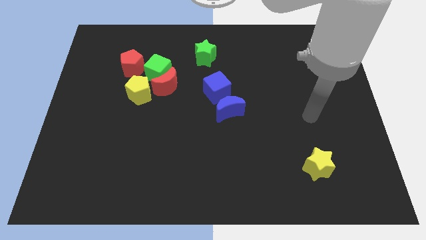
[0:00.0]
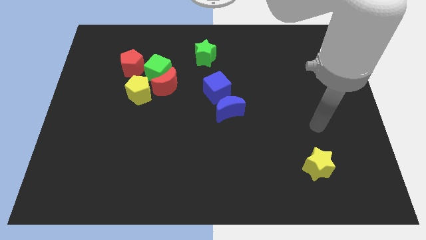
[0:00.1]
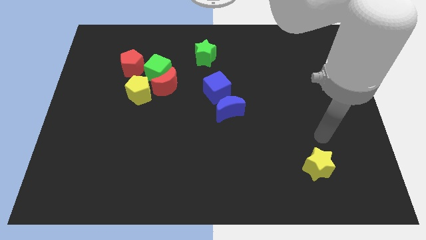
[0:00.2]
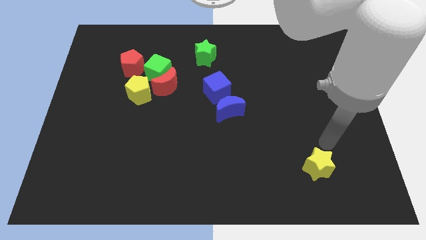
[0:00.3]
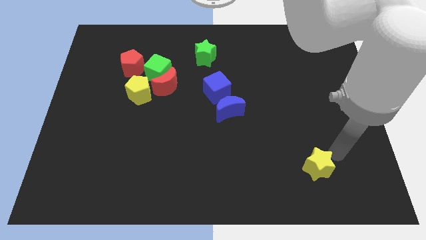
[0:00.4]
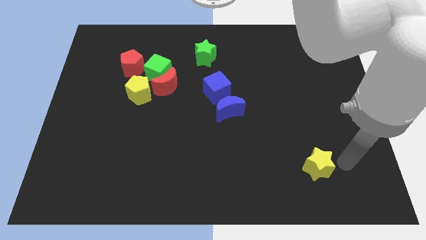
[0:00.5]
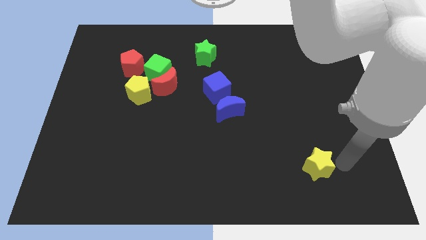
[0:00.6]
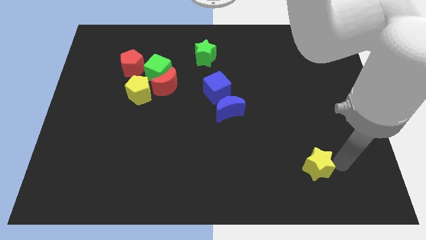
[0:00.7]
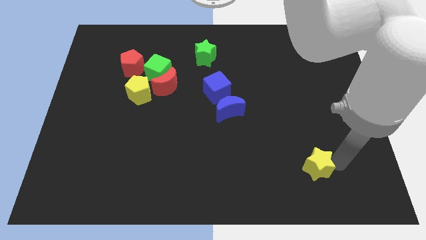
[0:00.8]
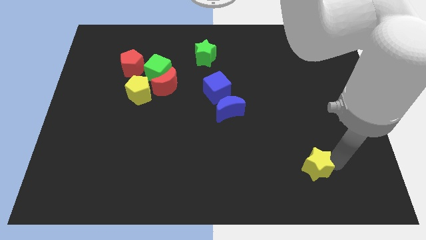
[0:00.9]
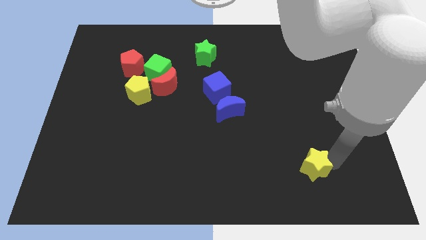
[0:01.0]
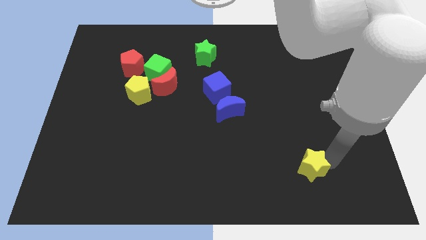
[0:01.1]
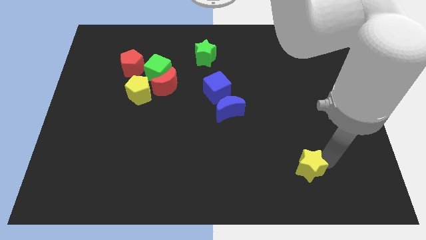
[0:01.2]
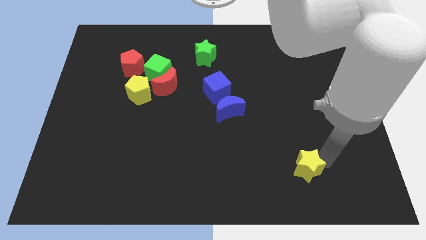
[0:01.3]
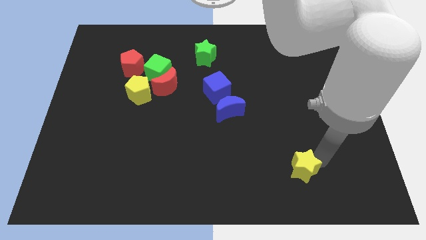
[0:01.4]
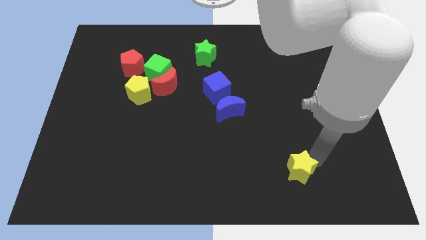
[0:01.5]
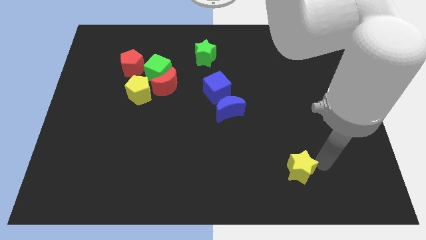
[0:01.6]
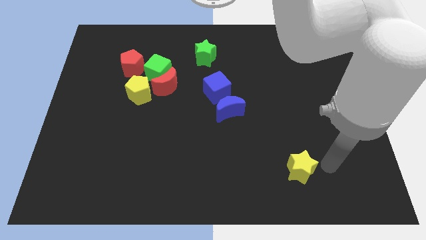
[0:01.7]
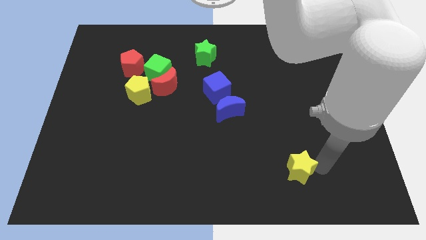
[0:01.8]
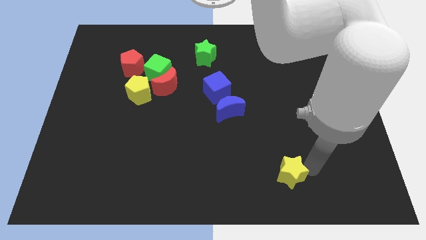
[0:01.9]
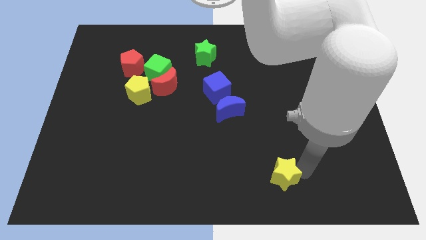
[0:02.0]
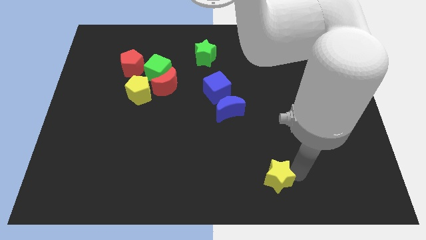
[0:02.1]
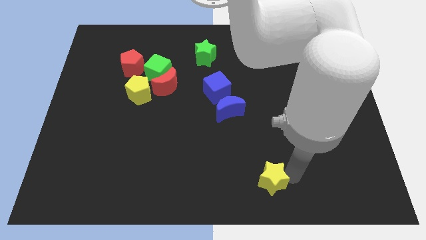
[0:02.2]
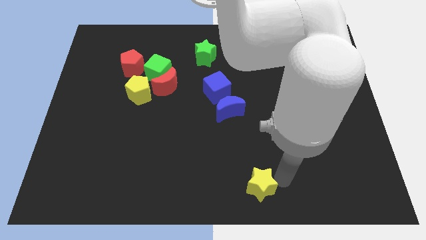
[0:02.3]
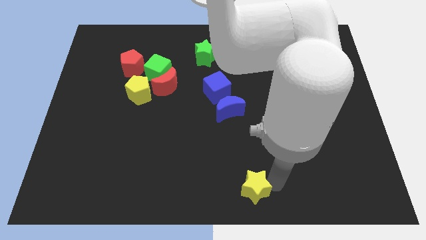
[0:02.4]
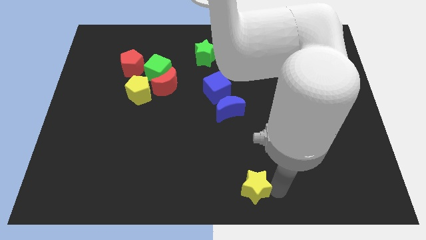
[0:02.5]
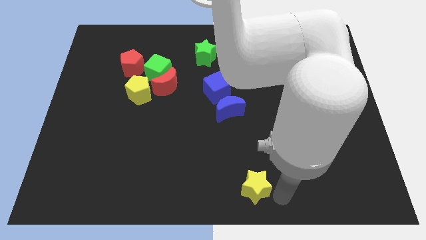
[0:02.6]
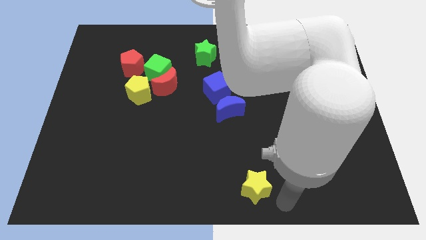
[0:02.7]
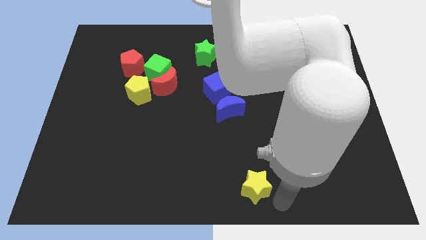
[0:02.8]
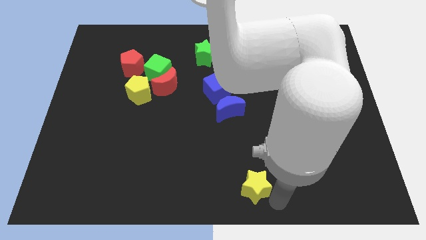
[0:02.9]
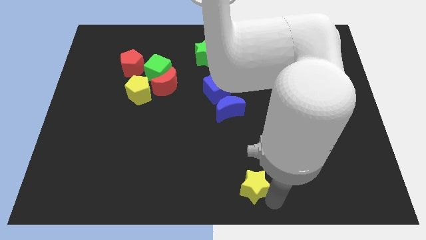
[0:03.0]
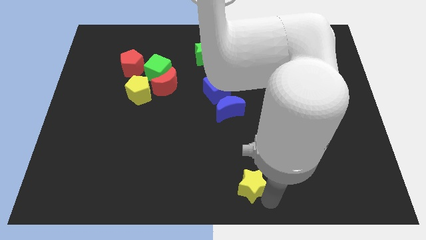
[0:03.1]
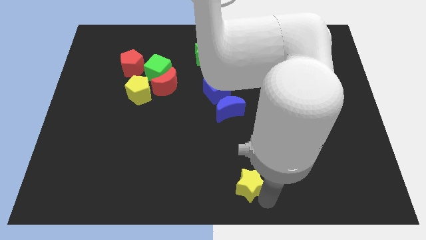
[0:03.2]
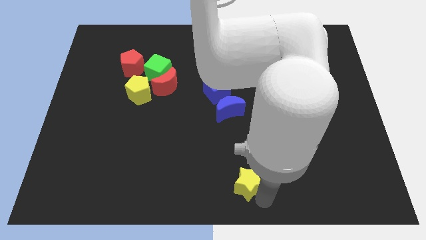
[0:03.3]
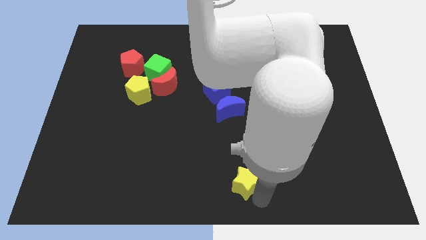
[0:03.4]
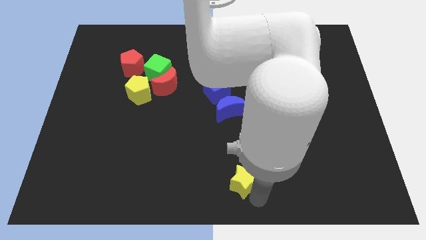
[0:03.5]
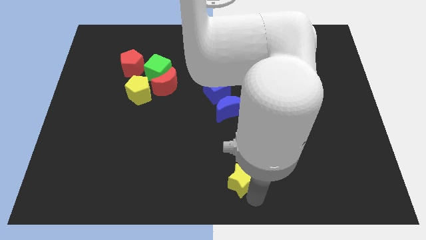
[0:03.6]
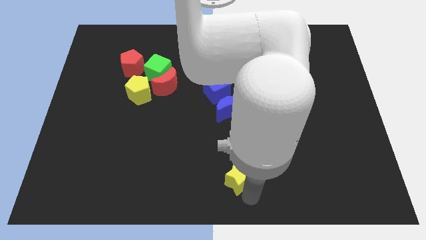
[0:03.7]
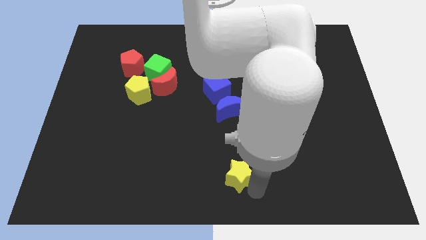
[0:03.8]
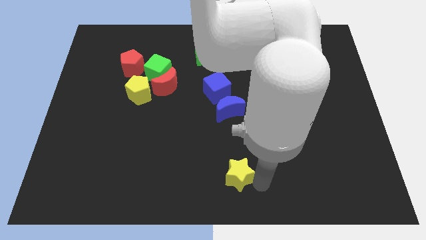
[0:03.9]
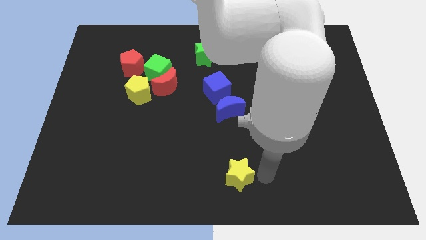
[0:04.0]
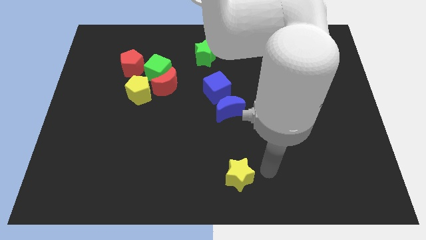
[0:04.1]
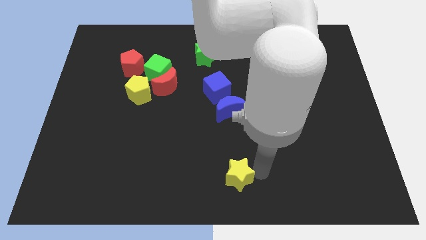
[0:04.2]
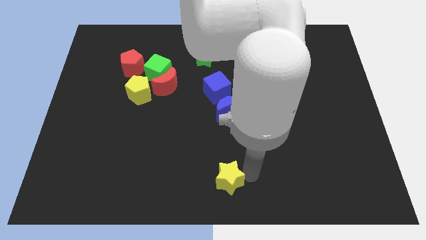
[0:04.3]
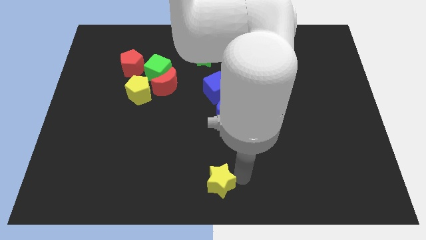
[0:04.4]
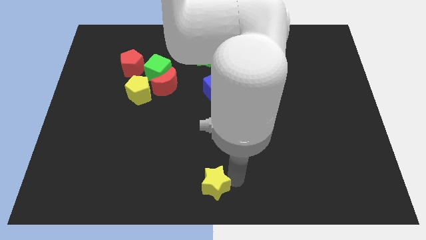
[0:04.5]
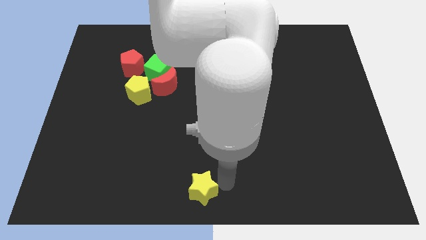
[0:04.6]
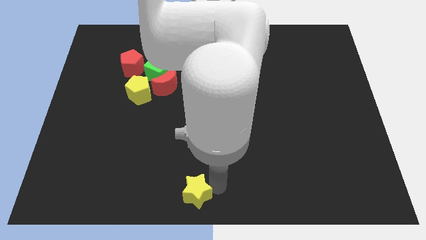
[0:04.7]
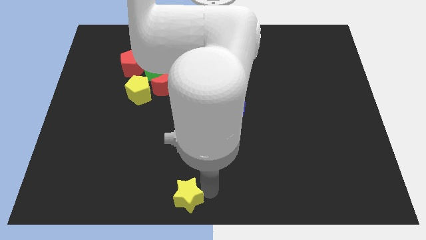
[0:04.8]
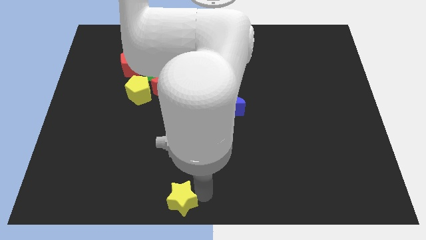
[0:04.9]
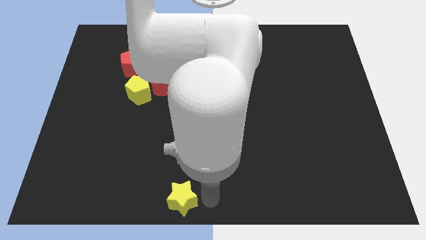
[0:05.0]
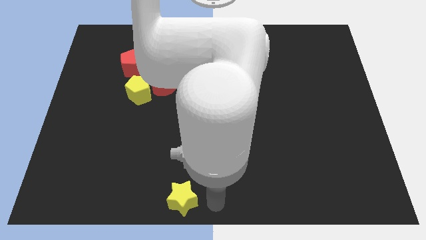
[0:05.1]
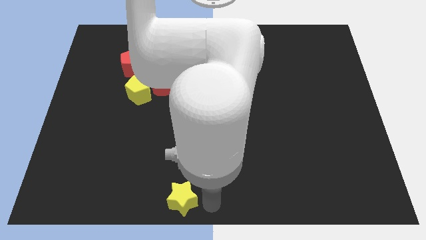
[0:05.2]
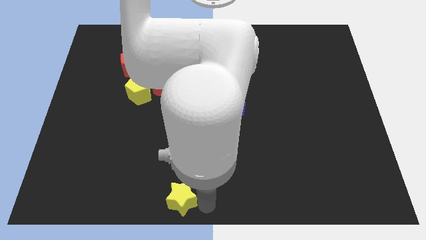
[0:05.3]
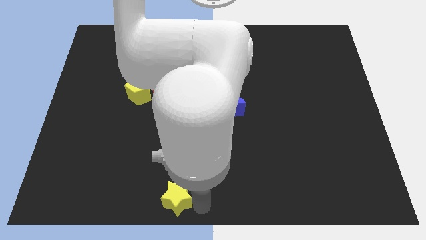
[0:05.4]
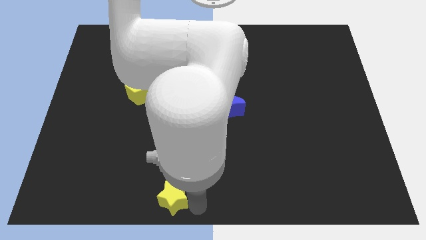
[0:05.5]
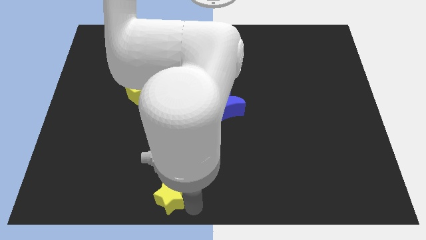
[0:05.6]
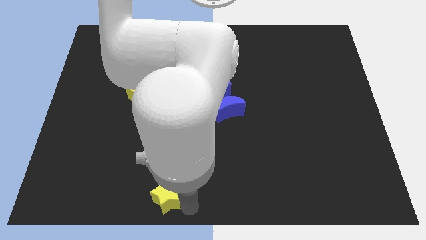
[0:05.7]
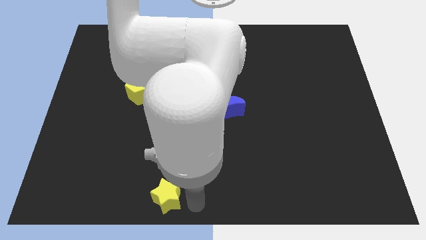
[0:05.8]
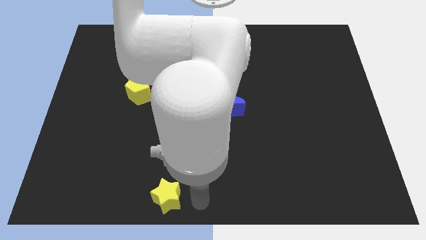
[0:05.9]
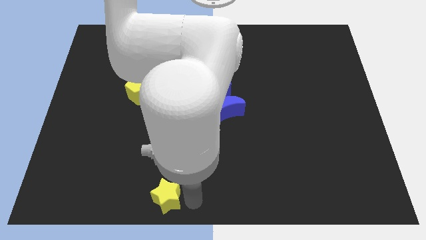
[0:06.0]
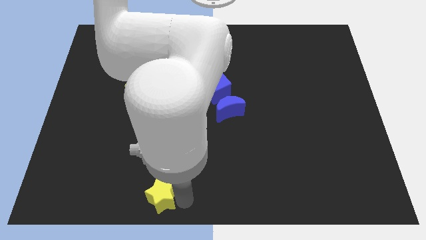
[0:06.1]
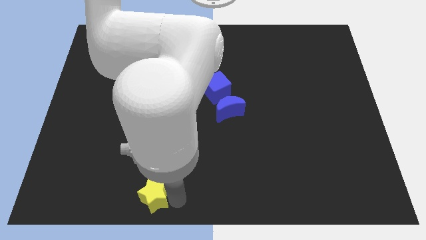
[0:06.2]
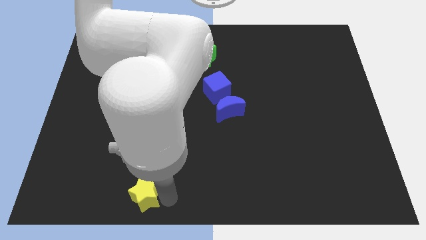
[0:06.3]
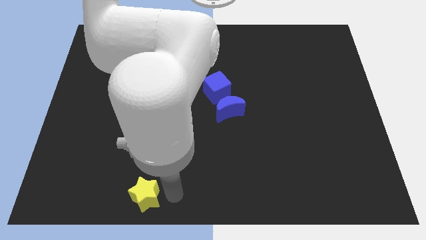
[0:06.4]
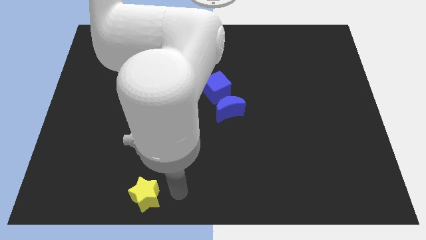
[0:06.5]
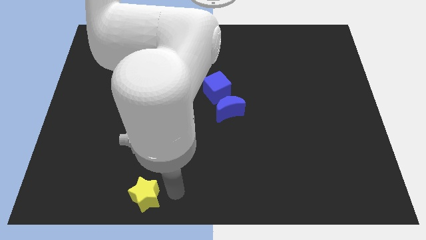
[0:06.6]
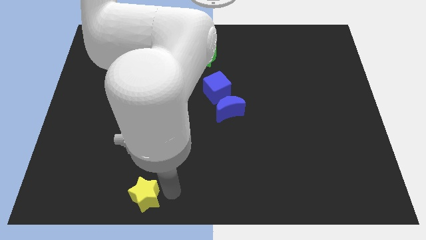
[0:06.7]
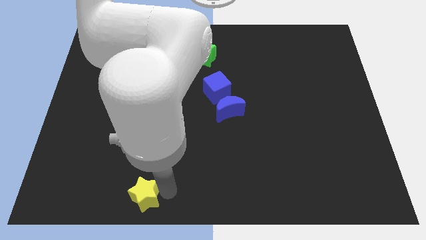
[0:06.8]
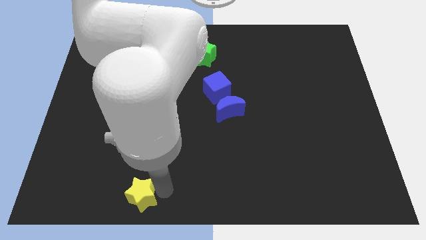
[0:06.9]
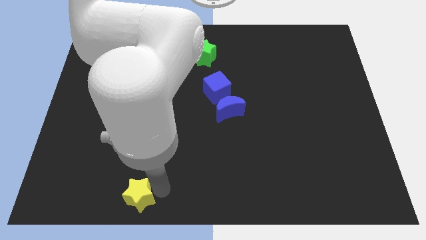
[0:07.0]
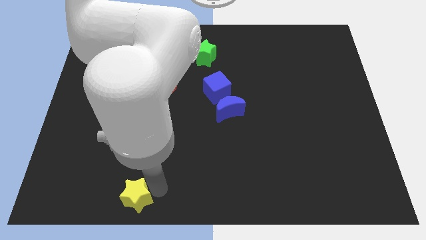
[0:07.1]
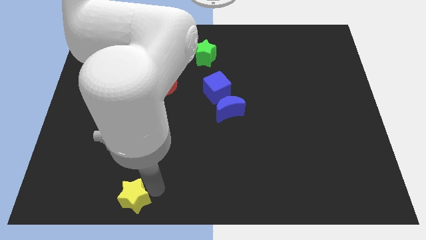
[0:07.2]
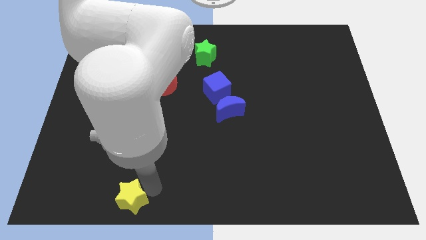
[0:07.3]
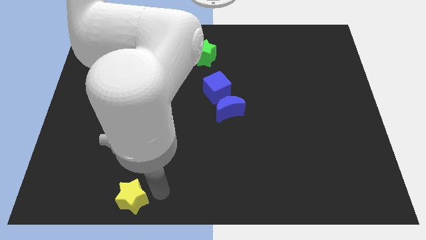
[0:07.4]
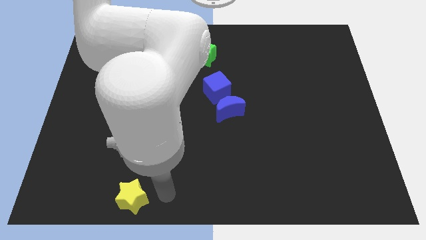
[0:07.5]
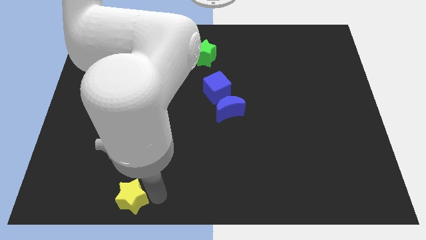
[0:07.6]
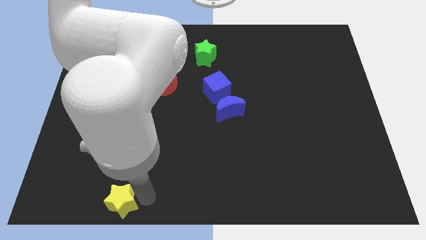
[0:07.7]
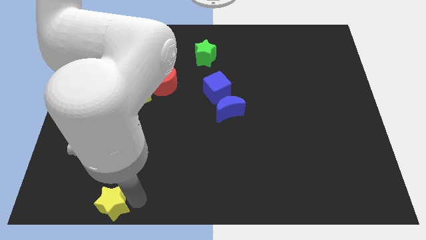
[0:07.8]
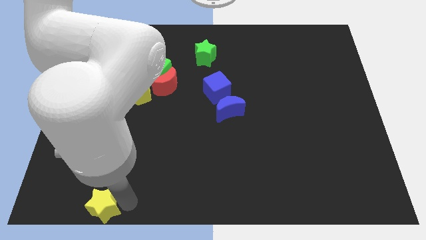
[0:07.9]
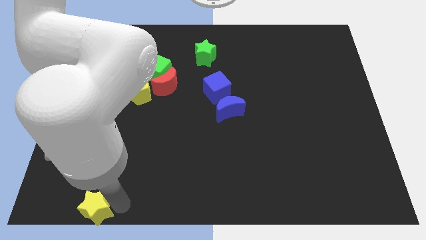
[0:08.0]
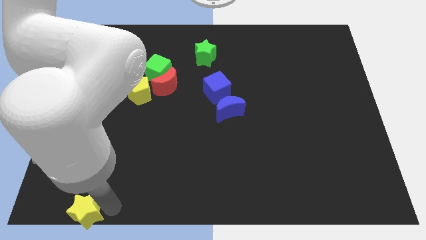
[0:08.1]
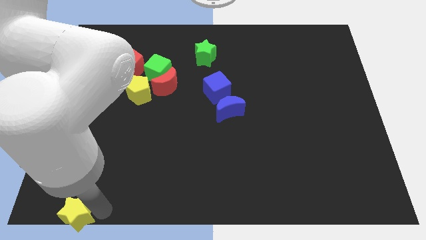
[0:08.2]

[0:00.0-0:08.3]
put the yellow star to the bottom left
